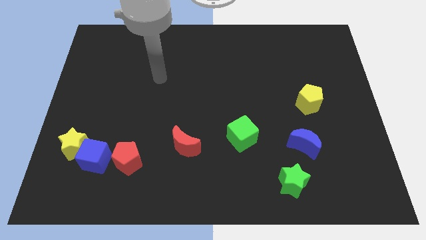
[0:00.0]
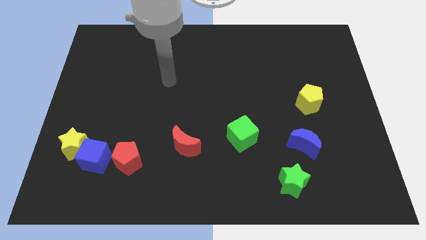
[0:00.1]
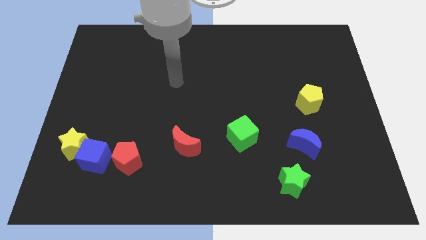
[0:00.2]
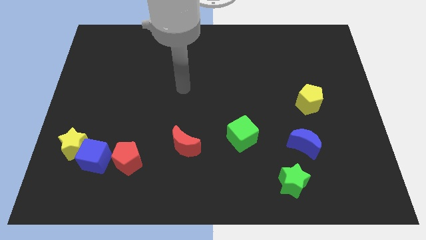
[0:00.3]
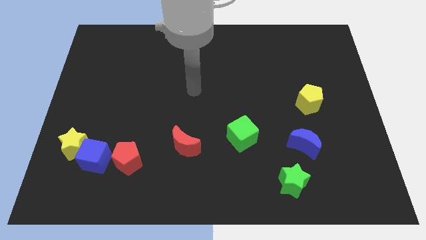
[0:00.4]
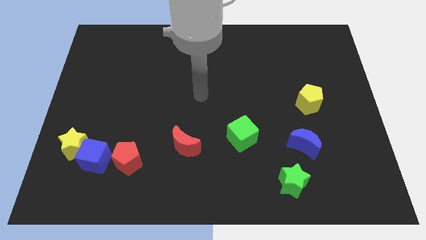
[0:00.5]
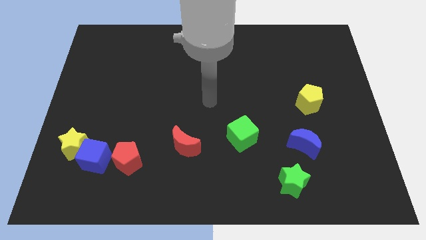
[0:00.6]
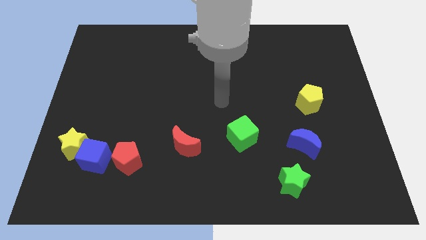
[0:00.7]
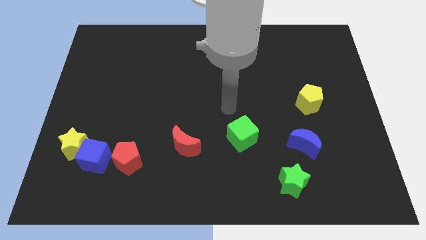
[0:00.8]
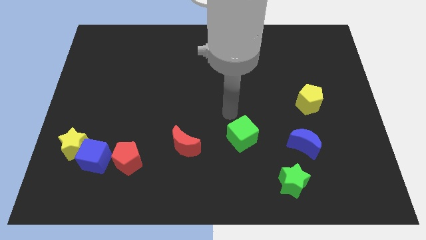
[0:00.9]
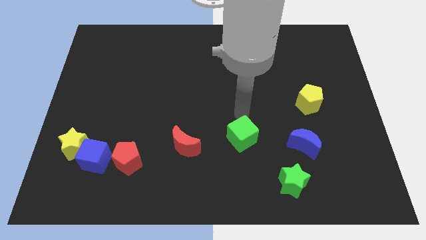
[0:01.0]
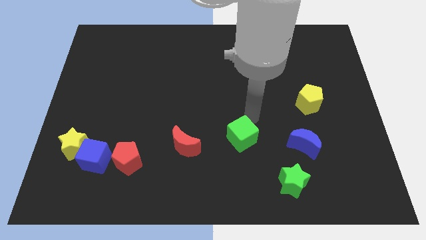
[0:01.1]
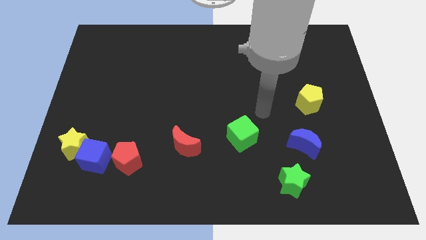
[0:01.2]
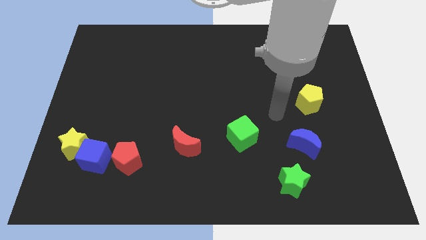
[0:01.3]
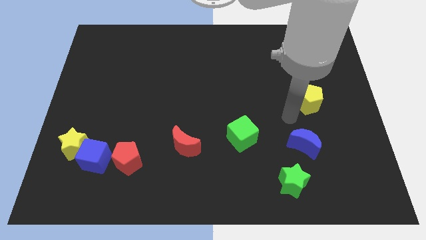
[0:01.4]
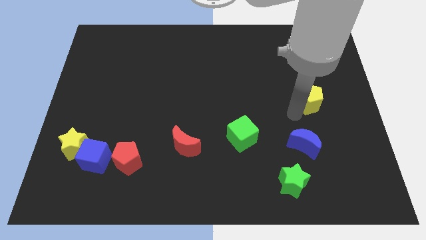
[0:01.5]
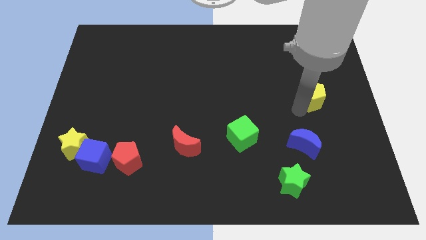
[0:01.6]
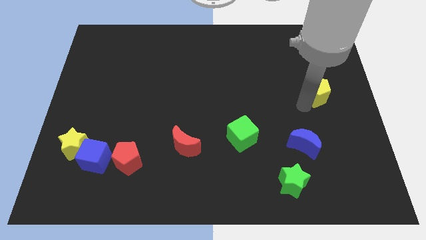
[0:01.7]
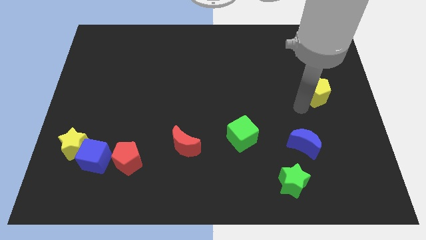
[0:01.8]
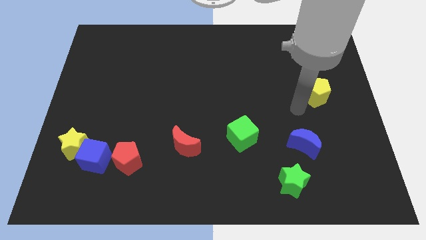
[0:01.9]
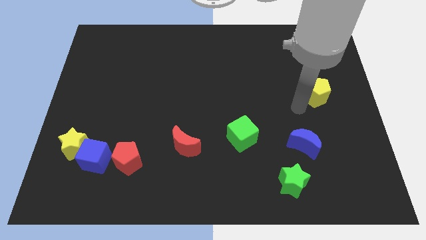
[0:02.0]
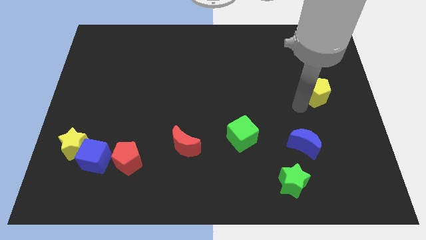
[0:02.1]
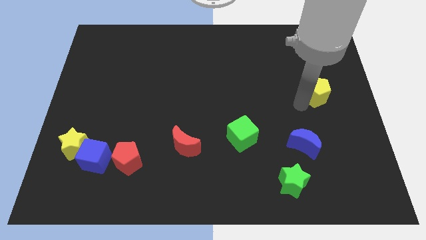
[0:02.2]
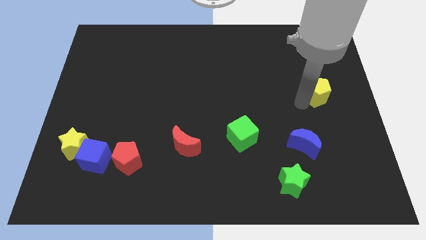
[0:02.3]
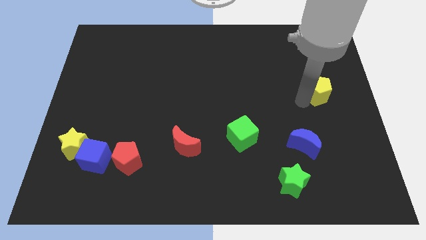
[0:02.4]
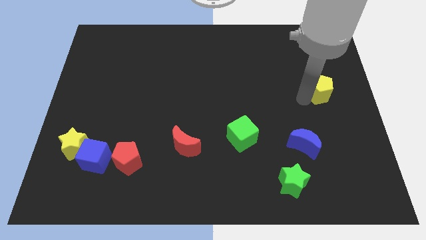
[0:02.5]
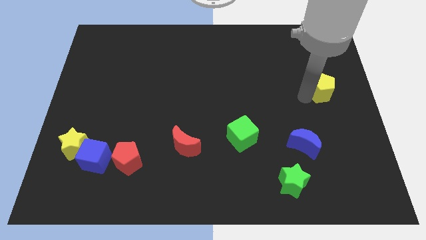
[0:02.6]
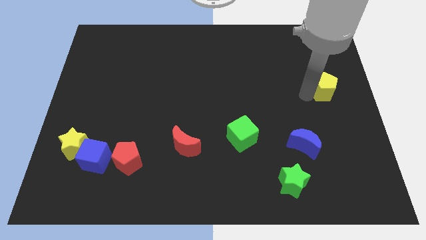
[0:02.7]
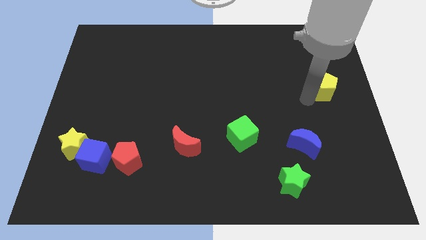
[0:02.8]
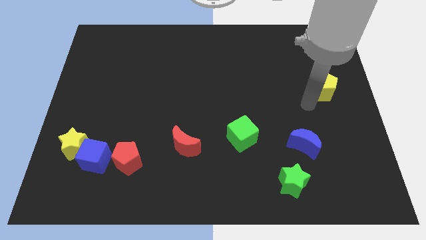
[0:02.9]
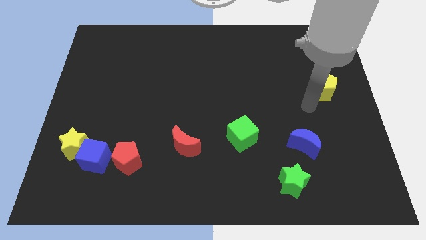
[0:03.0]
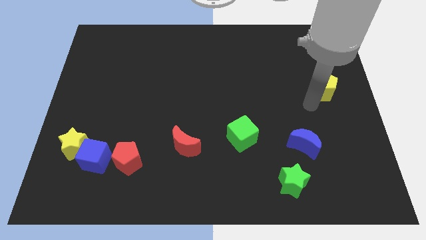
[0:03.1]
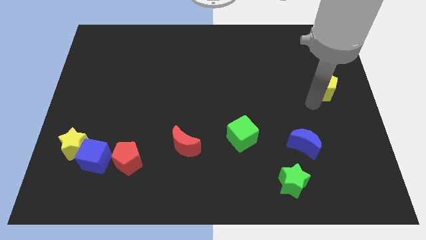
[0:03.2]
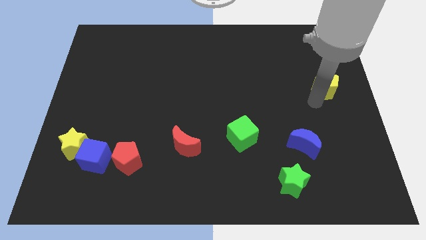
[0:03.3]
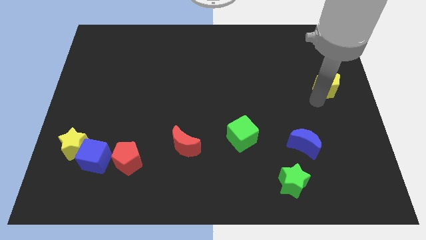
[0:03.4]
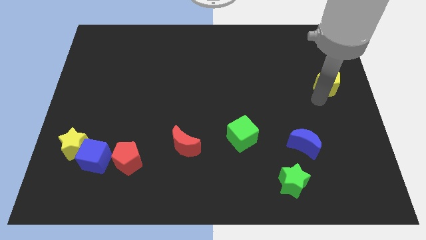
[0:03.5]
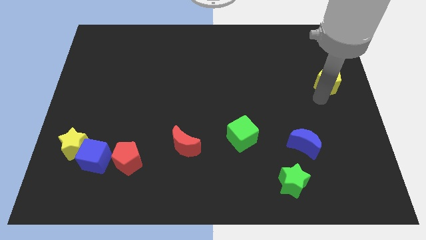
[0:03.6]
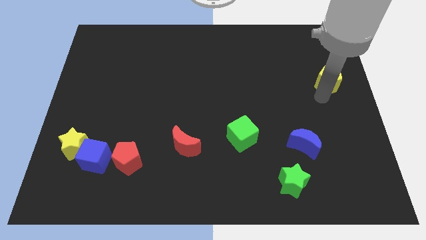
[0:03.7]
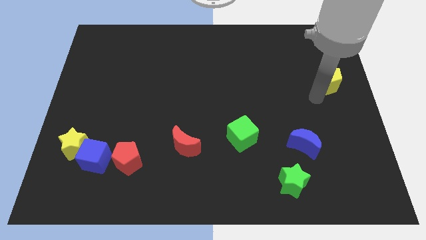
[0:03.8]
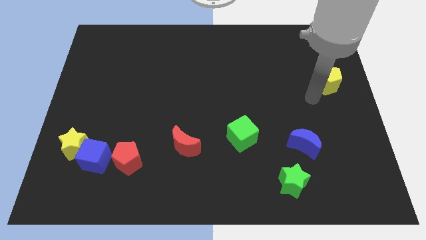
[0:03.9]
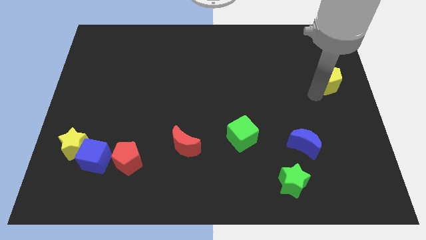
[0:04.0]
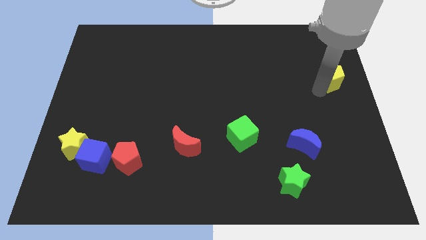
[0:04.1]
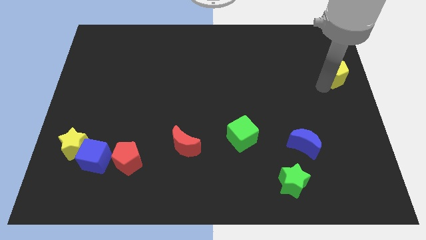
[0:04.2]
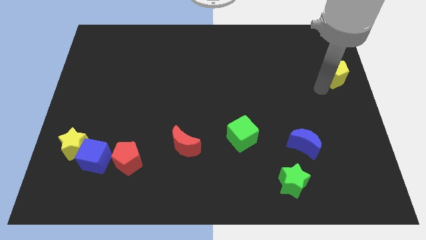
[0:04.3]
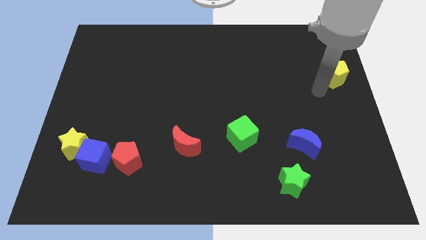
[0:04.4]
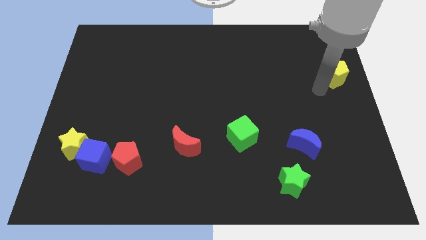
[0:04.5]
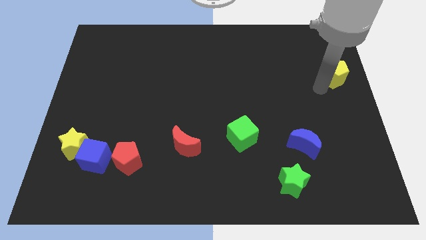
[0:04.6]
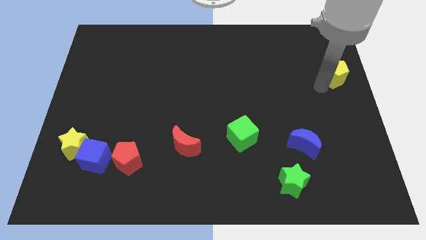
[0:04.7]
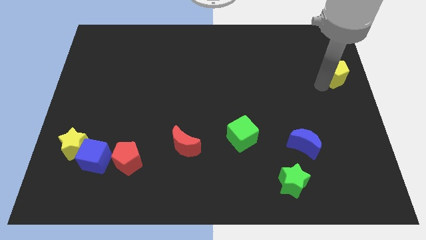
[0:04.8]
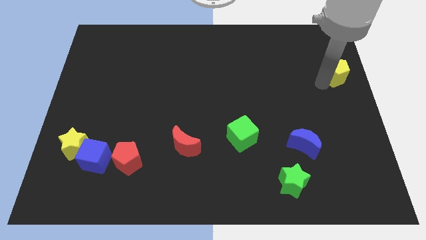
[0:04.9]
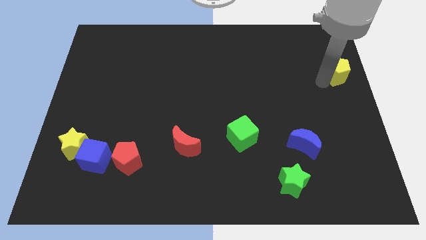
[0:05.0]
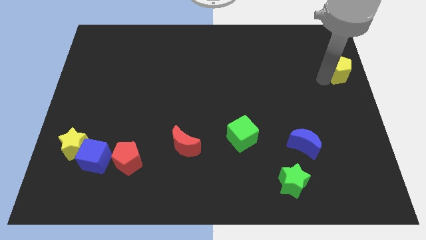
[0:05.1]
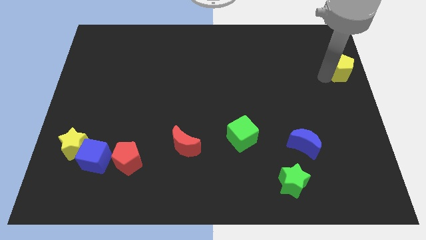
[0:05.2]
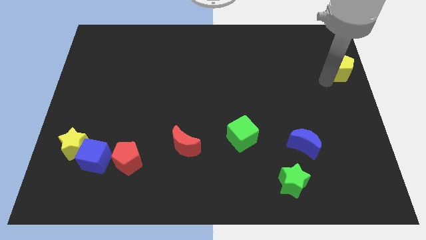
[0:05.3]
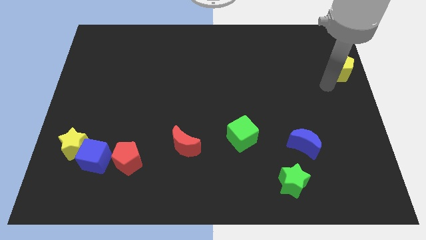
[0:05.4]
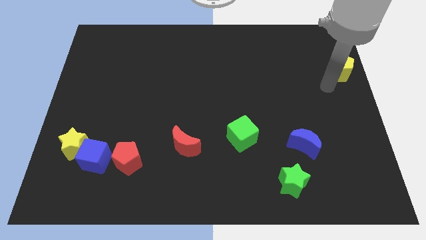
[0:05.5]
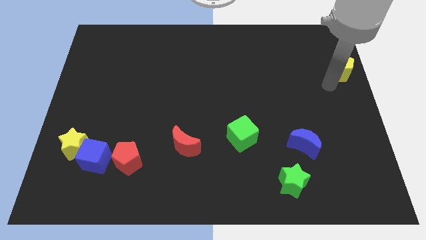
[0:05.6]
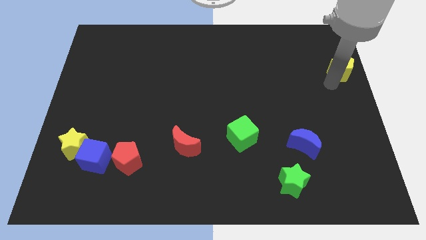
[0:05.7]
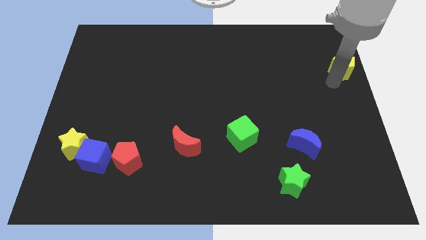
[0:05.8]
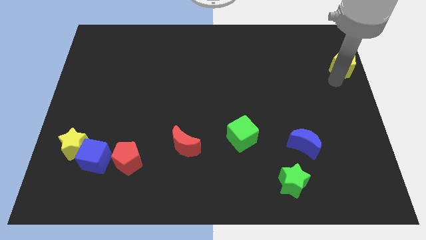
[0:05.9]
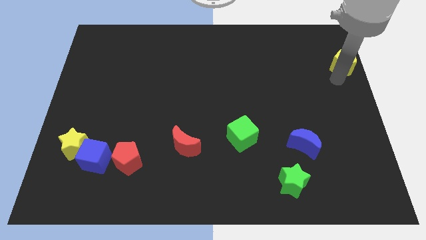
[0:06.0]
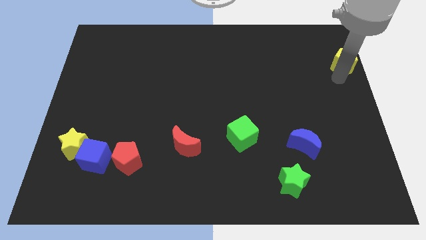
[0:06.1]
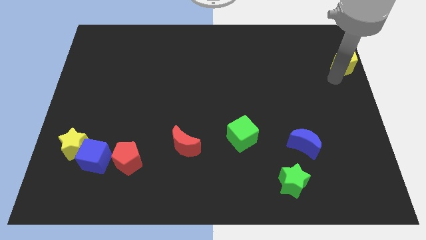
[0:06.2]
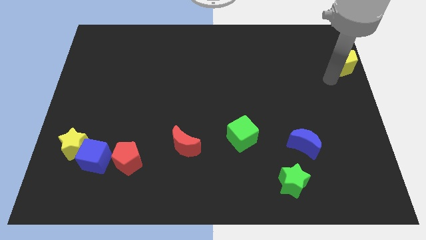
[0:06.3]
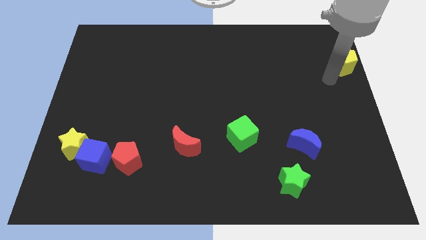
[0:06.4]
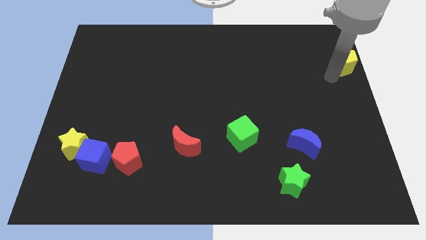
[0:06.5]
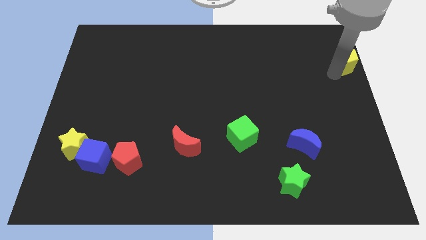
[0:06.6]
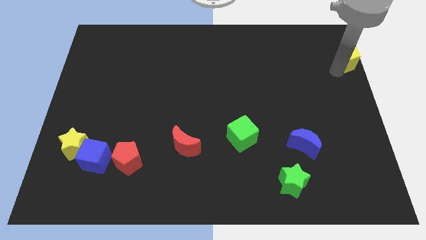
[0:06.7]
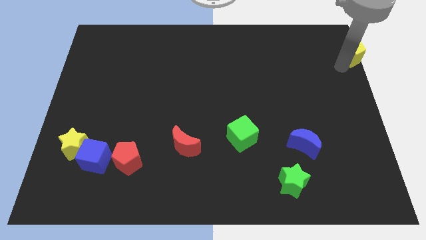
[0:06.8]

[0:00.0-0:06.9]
push the yellow pentagon to the top right

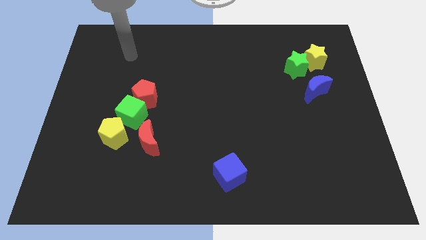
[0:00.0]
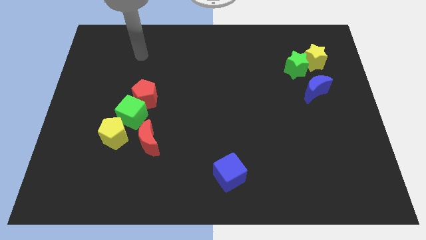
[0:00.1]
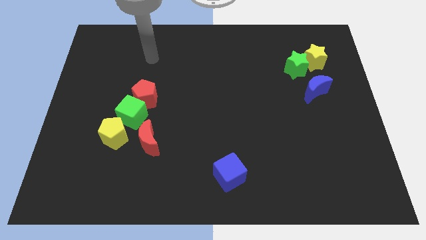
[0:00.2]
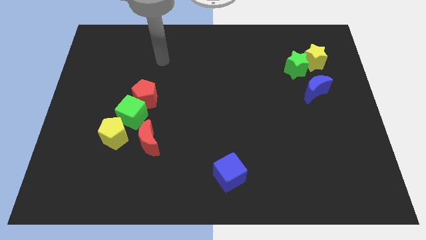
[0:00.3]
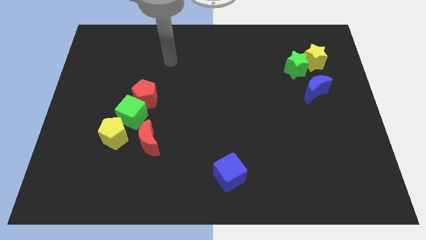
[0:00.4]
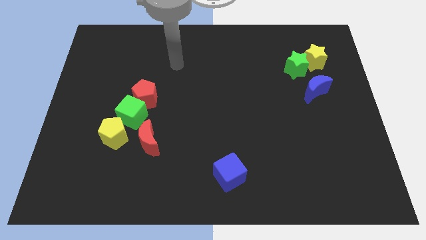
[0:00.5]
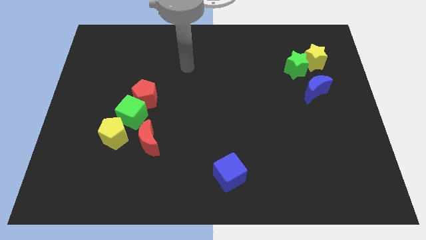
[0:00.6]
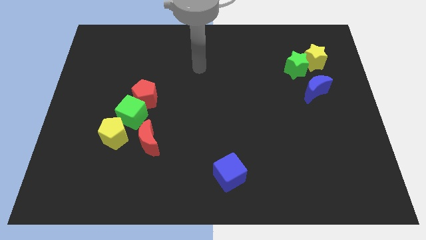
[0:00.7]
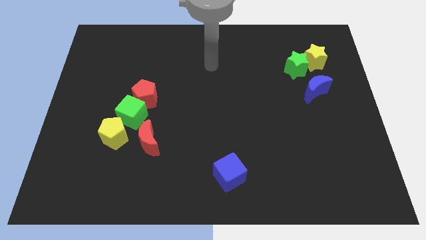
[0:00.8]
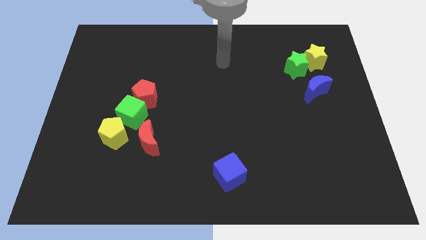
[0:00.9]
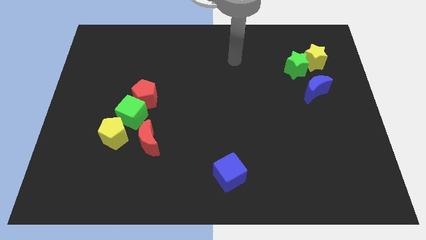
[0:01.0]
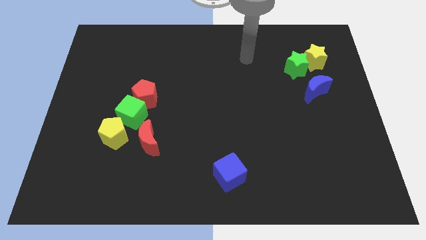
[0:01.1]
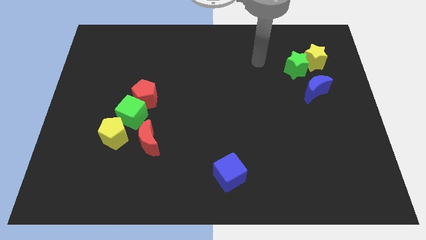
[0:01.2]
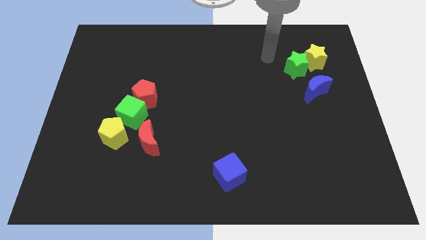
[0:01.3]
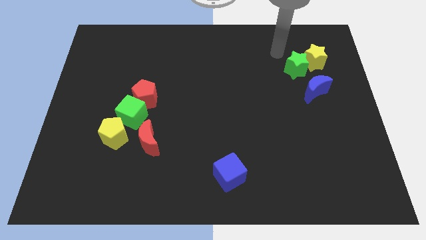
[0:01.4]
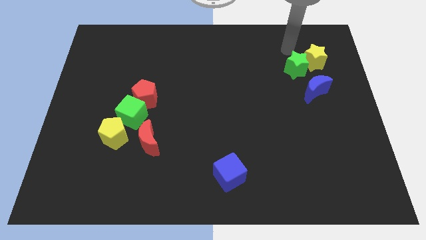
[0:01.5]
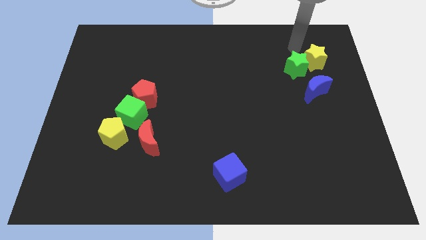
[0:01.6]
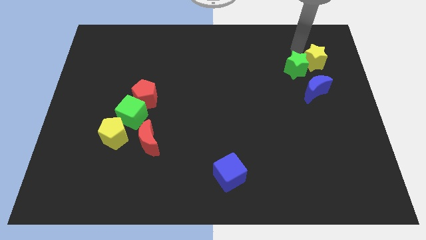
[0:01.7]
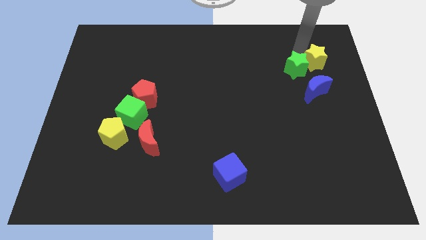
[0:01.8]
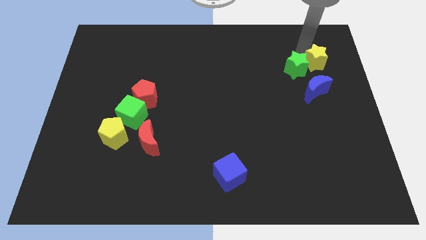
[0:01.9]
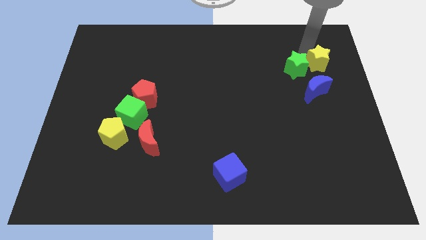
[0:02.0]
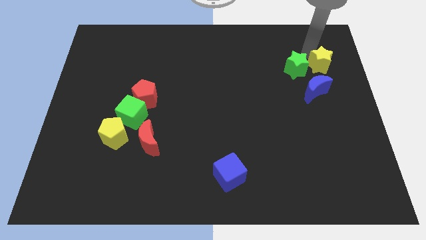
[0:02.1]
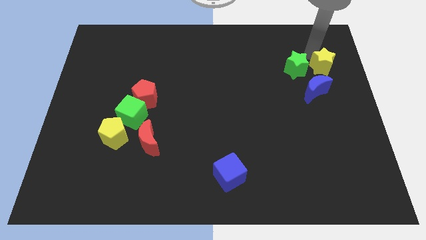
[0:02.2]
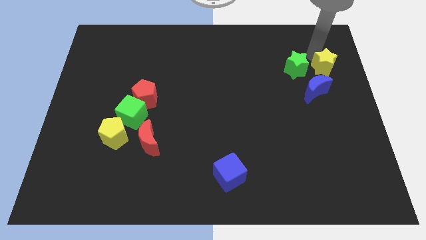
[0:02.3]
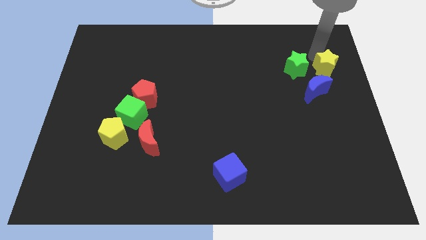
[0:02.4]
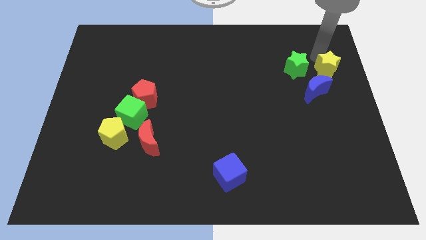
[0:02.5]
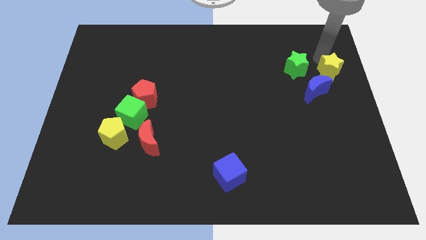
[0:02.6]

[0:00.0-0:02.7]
move the yellow star to the right side of the board
